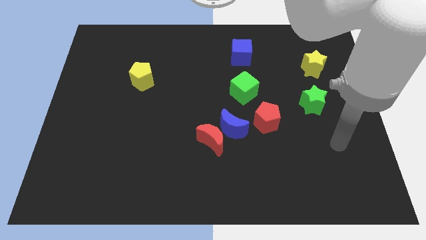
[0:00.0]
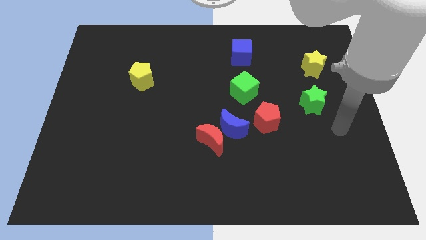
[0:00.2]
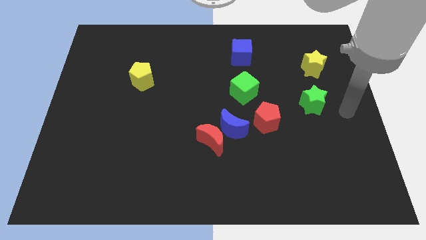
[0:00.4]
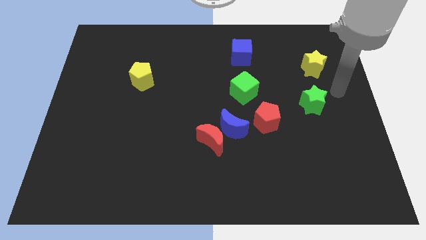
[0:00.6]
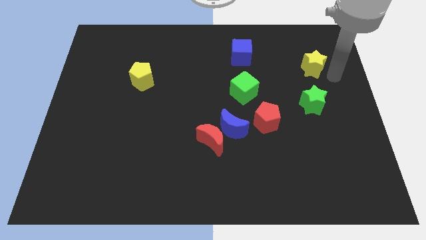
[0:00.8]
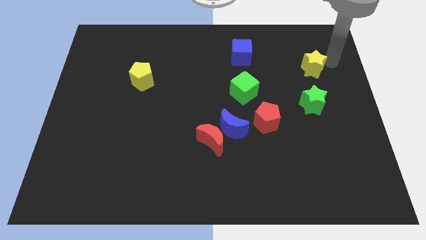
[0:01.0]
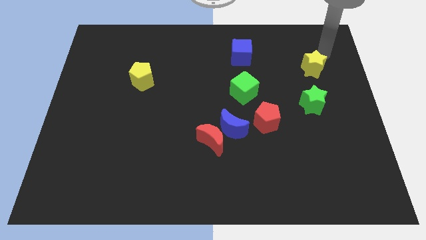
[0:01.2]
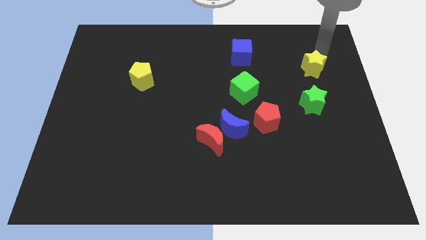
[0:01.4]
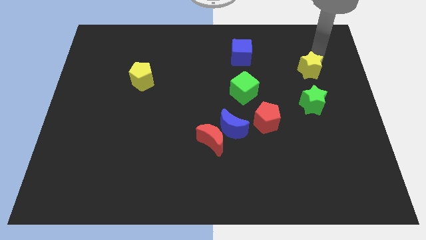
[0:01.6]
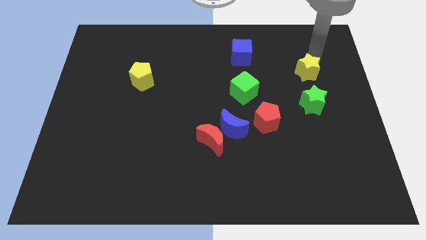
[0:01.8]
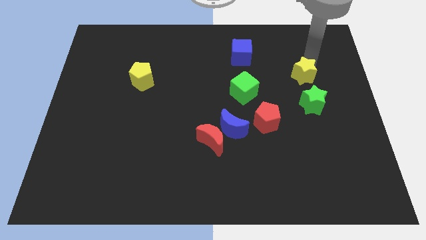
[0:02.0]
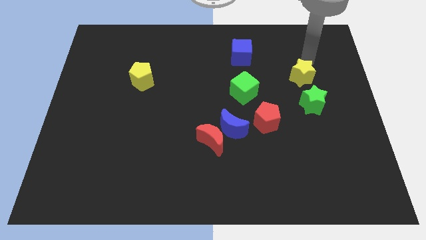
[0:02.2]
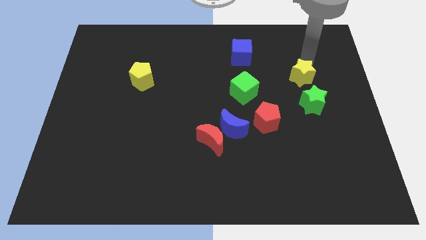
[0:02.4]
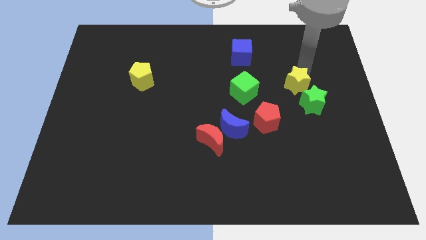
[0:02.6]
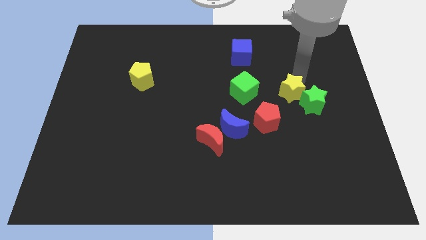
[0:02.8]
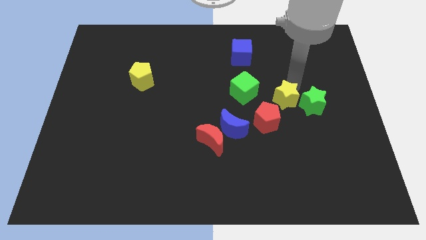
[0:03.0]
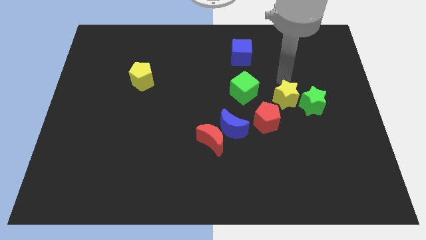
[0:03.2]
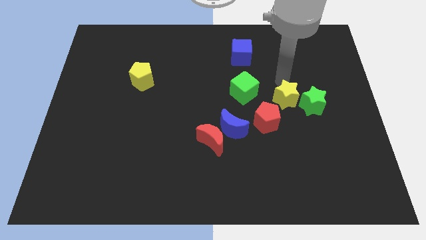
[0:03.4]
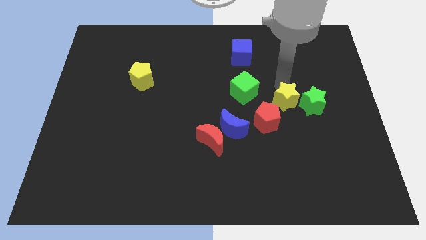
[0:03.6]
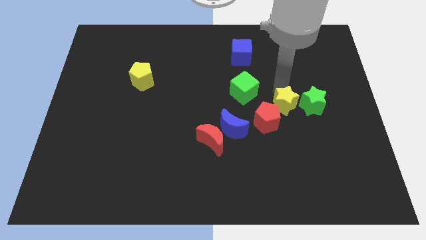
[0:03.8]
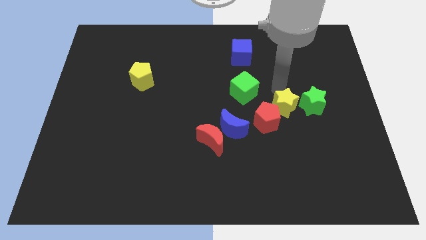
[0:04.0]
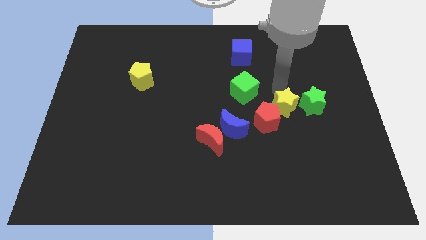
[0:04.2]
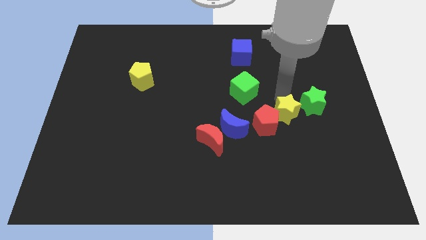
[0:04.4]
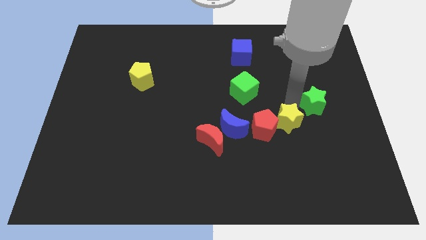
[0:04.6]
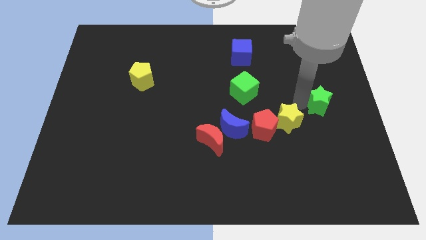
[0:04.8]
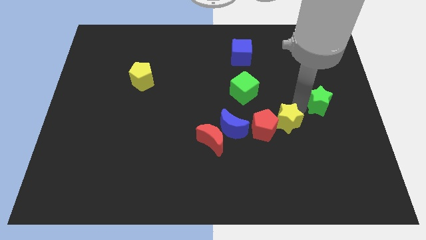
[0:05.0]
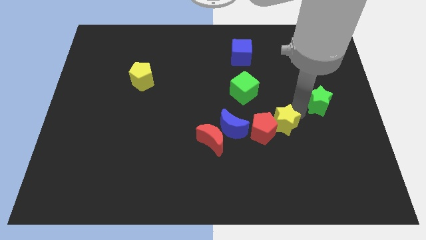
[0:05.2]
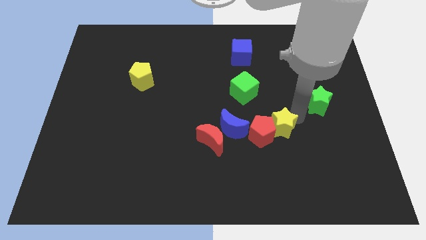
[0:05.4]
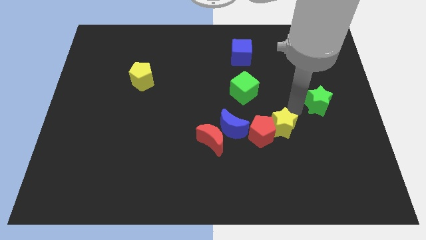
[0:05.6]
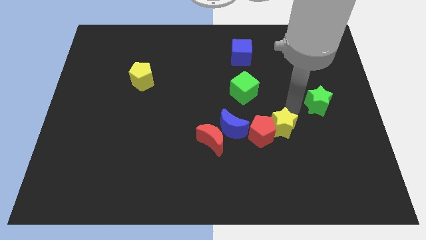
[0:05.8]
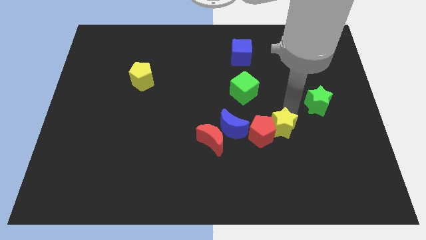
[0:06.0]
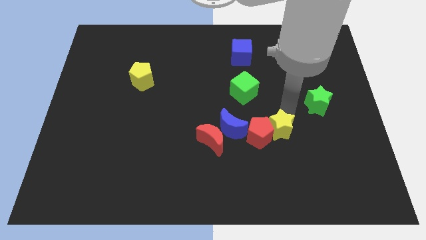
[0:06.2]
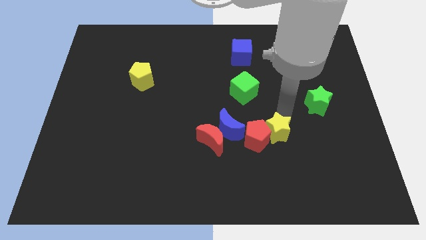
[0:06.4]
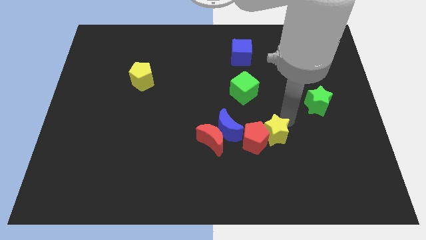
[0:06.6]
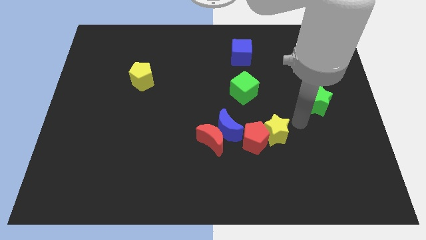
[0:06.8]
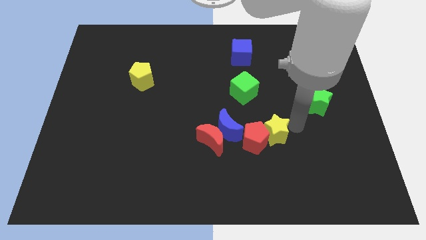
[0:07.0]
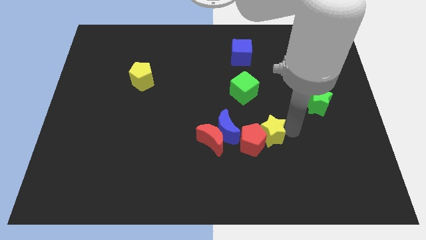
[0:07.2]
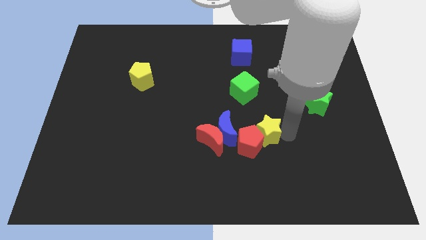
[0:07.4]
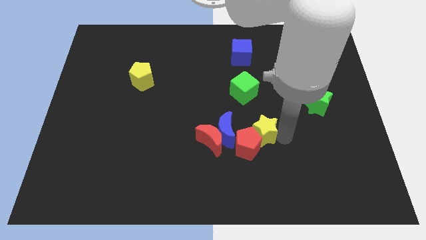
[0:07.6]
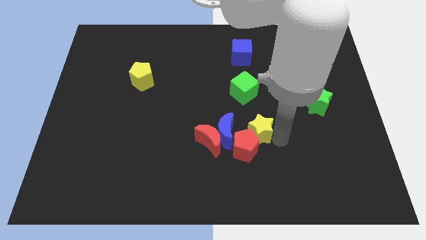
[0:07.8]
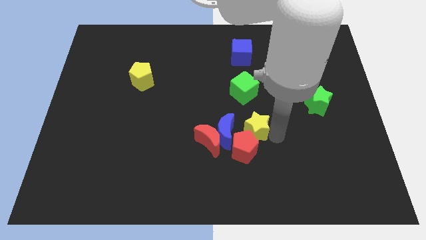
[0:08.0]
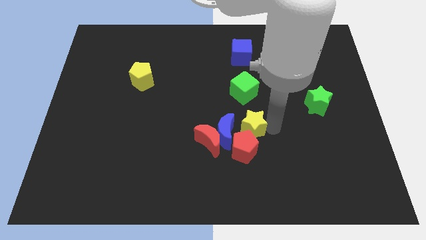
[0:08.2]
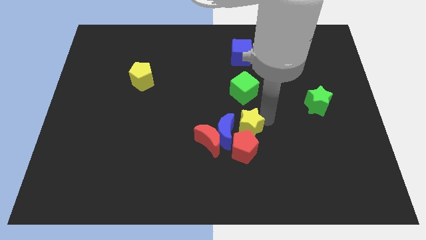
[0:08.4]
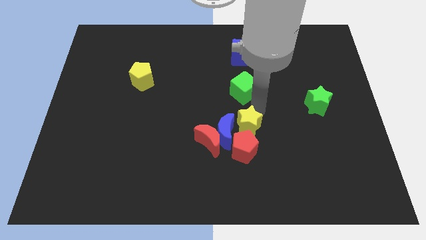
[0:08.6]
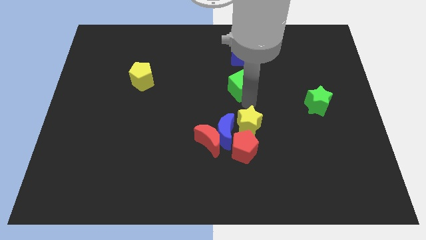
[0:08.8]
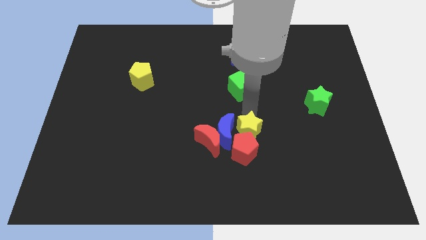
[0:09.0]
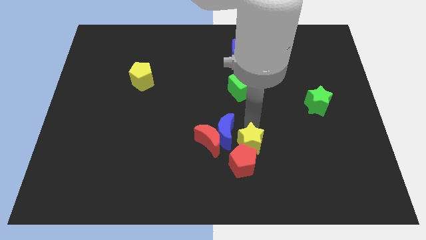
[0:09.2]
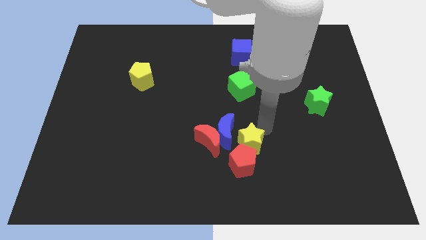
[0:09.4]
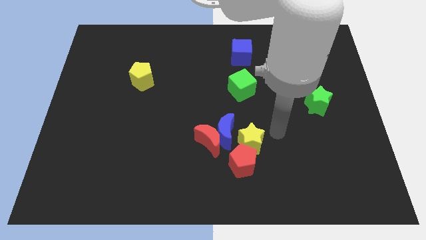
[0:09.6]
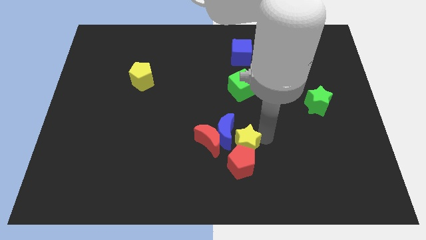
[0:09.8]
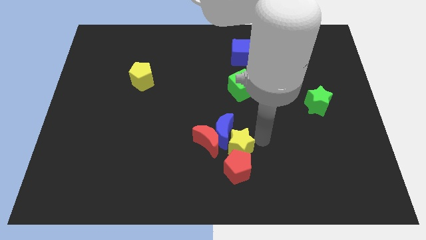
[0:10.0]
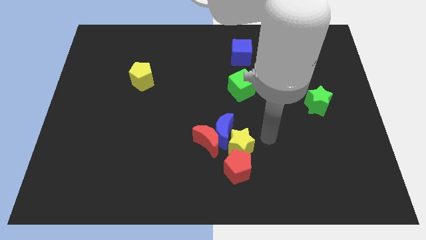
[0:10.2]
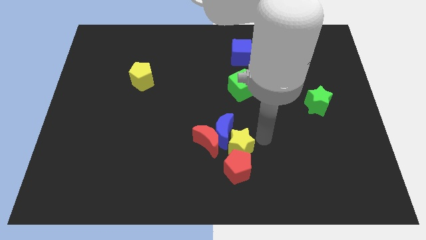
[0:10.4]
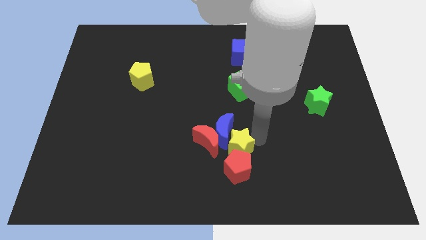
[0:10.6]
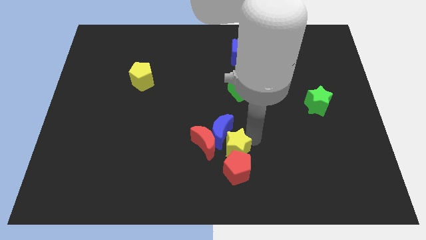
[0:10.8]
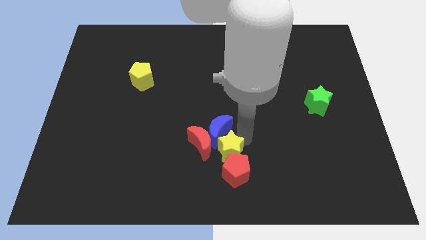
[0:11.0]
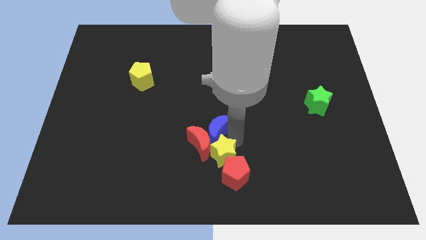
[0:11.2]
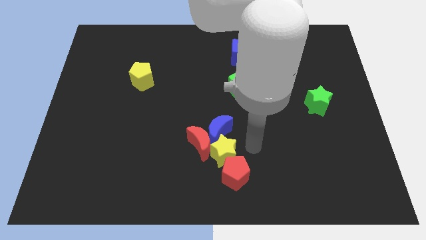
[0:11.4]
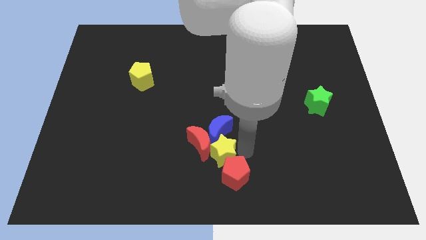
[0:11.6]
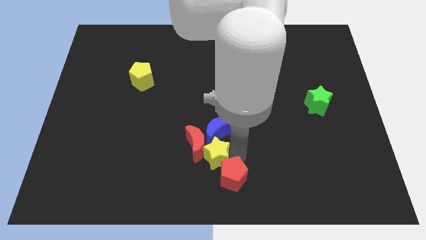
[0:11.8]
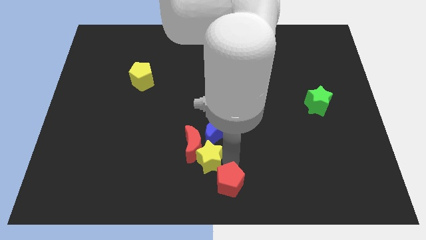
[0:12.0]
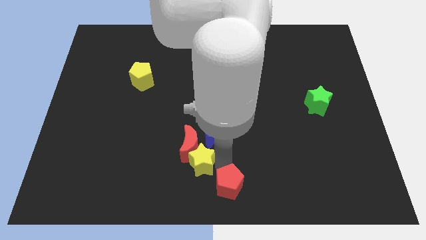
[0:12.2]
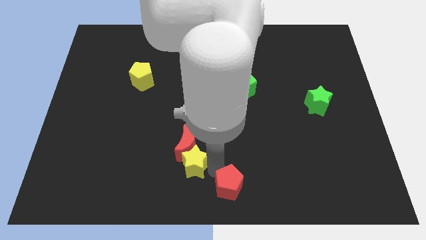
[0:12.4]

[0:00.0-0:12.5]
move the yellow star diagonally down and to the left of the red moon

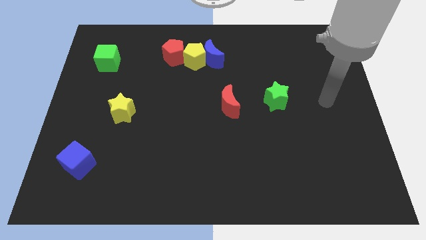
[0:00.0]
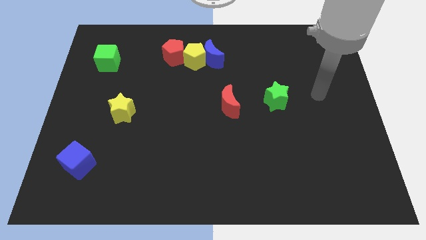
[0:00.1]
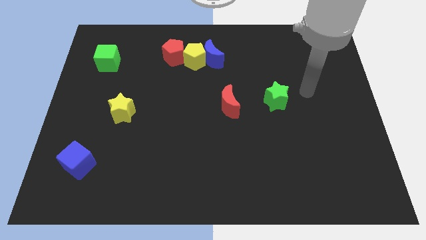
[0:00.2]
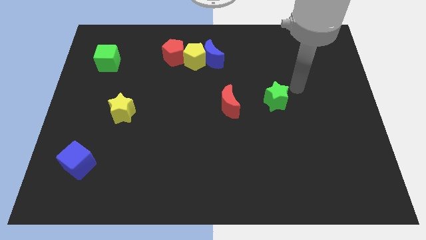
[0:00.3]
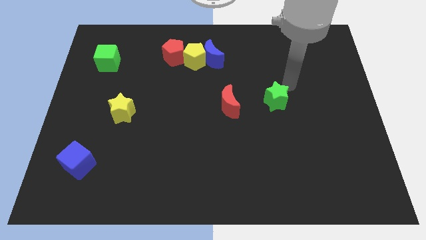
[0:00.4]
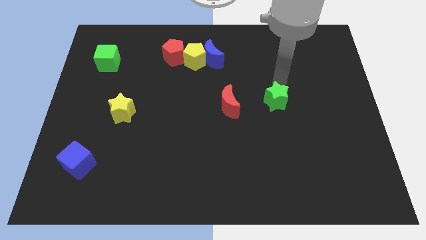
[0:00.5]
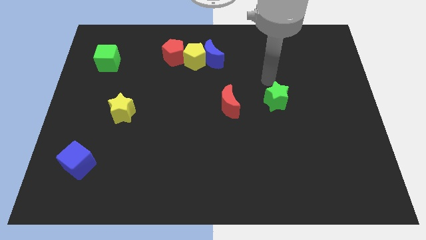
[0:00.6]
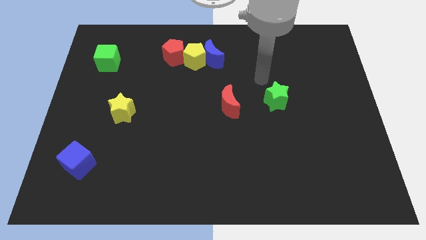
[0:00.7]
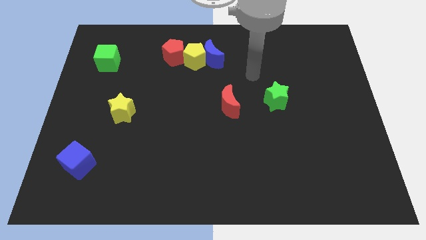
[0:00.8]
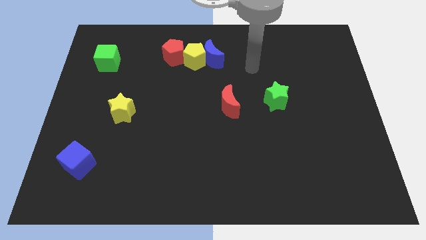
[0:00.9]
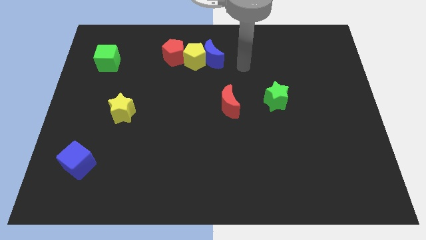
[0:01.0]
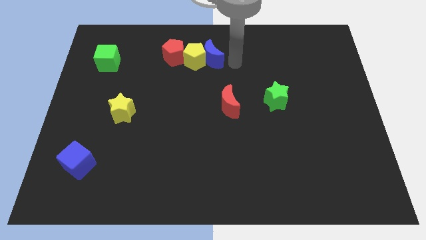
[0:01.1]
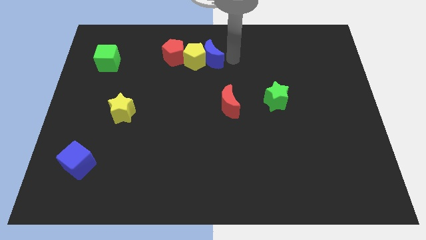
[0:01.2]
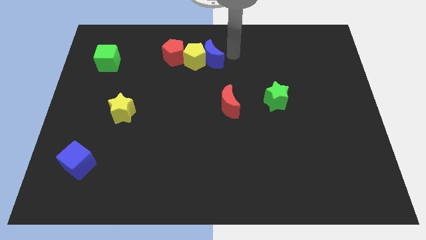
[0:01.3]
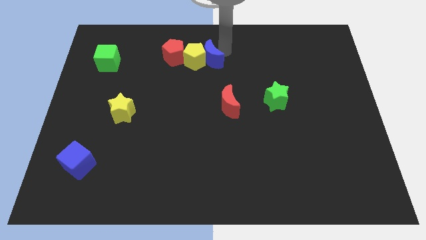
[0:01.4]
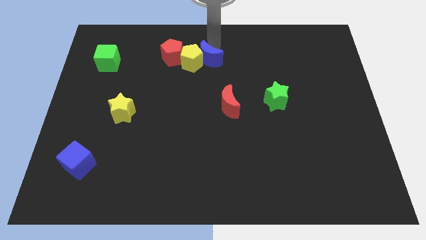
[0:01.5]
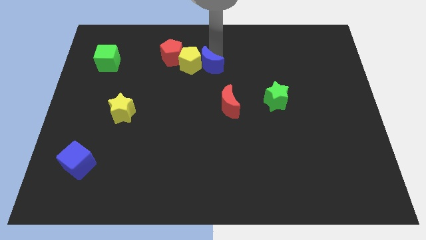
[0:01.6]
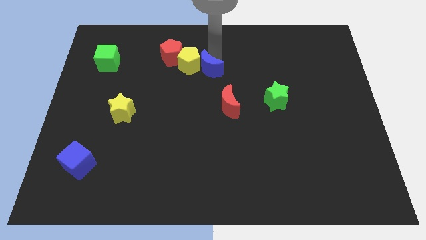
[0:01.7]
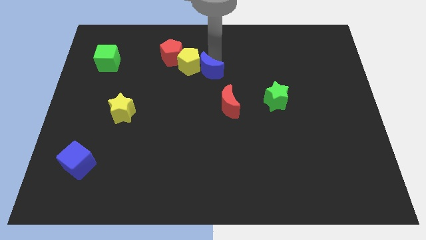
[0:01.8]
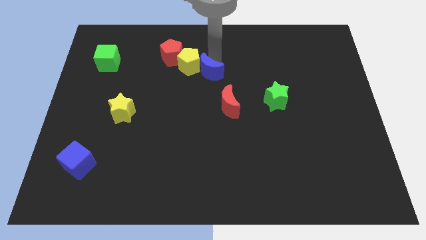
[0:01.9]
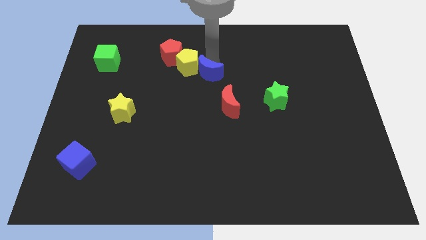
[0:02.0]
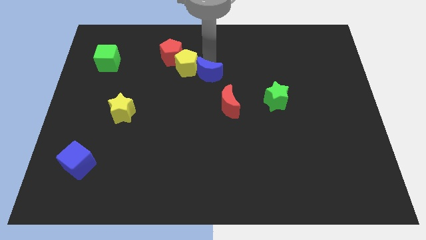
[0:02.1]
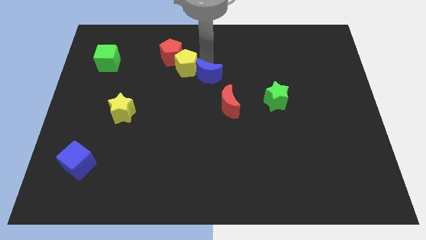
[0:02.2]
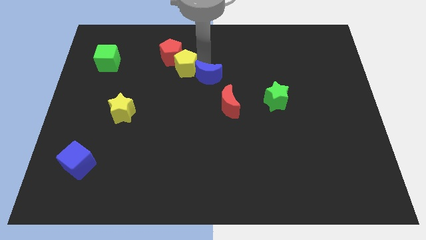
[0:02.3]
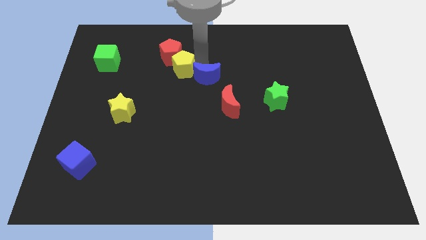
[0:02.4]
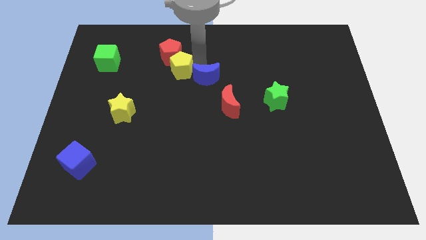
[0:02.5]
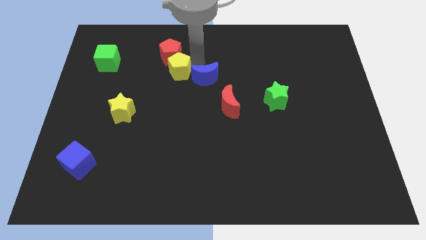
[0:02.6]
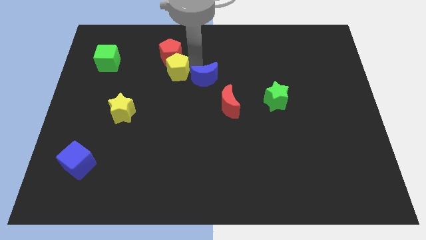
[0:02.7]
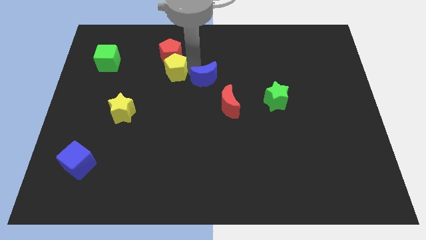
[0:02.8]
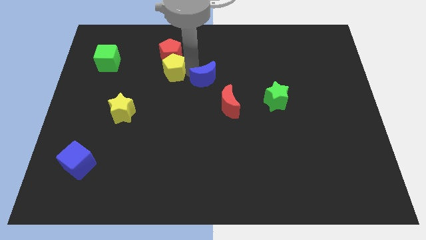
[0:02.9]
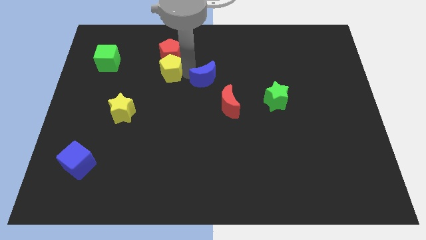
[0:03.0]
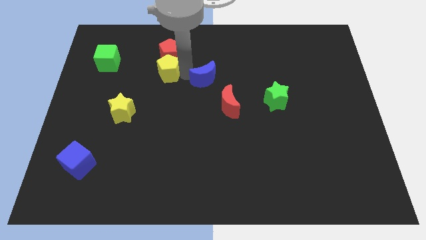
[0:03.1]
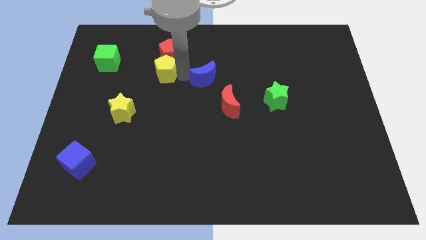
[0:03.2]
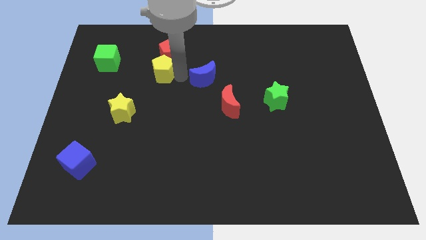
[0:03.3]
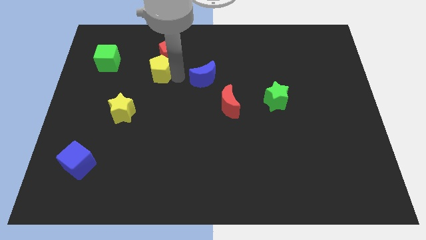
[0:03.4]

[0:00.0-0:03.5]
move the yellow pentagon to the right of the green cube
